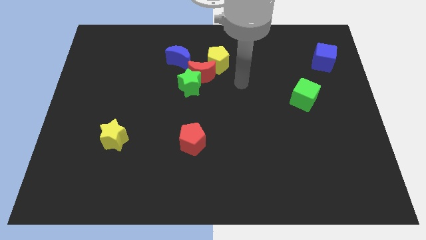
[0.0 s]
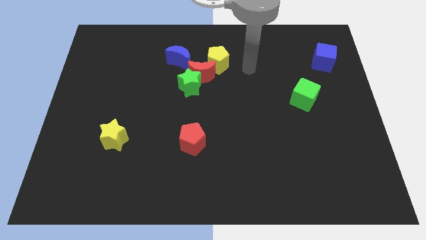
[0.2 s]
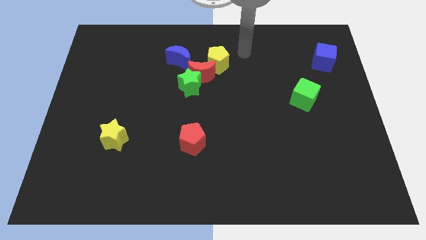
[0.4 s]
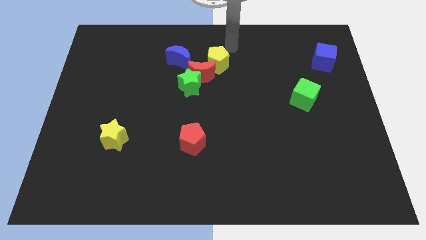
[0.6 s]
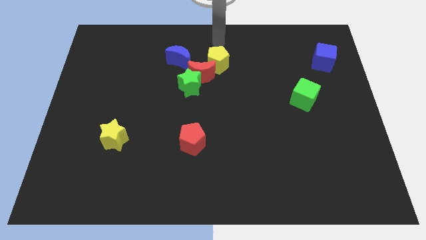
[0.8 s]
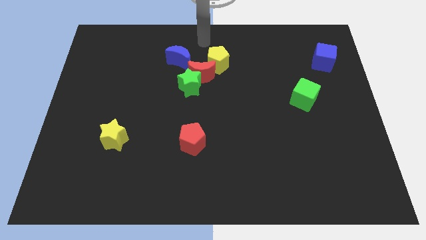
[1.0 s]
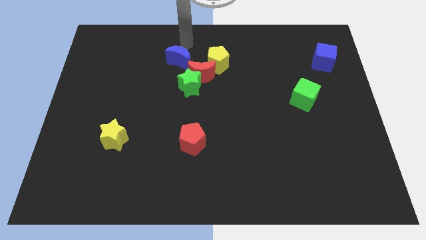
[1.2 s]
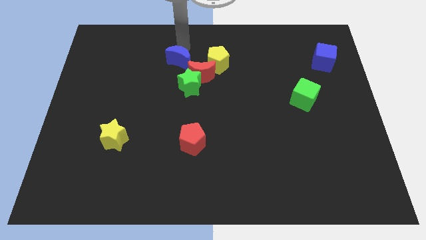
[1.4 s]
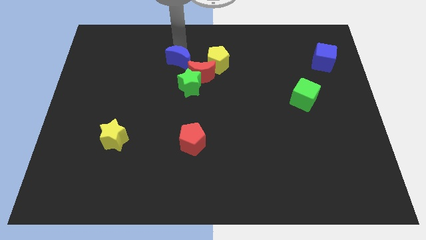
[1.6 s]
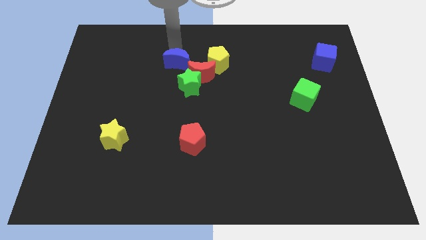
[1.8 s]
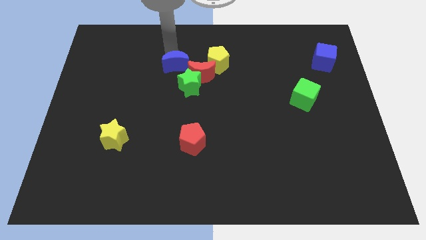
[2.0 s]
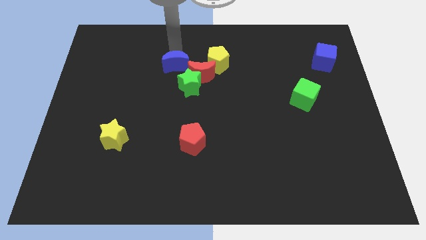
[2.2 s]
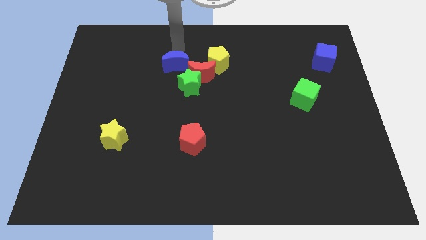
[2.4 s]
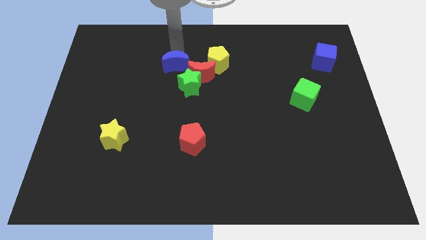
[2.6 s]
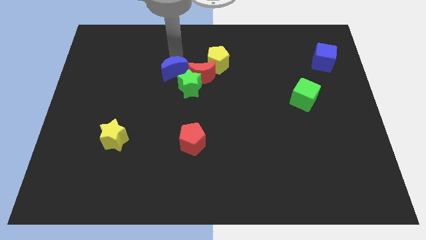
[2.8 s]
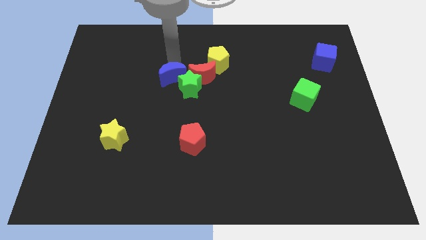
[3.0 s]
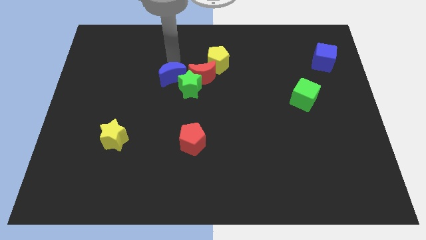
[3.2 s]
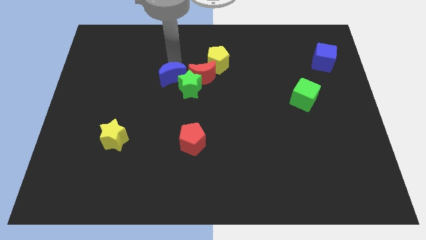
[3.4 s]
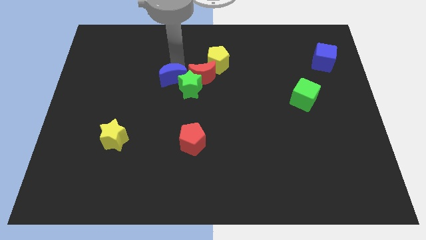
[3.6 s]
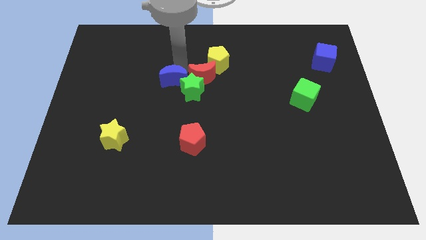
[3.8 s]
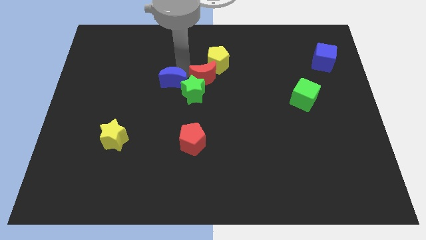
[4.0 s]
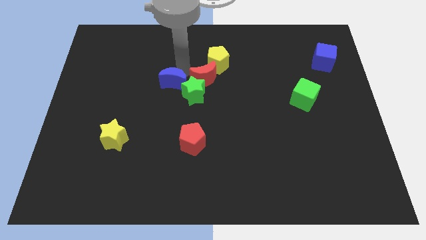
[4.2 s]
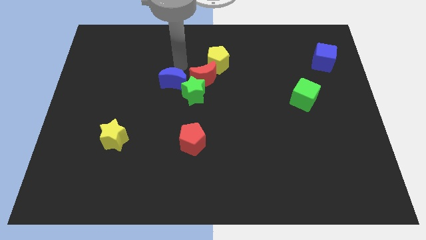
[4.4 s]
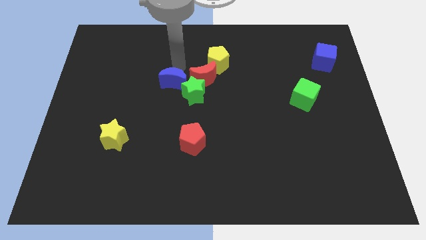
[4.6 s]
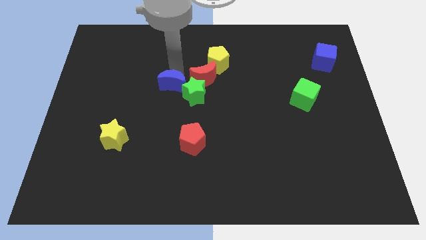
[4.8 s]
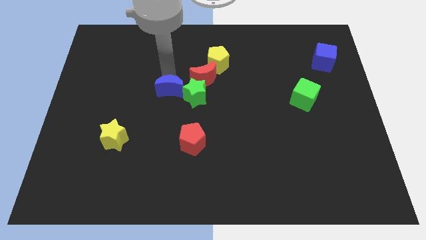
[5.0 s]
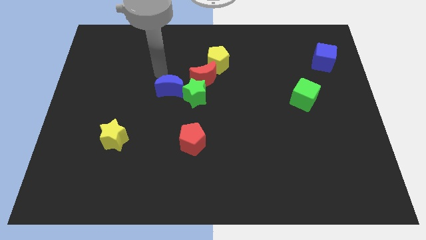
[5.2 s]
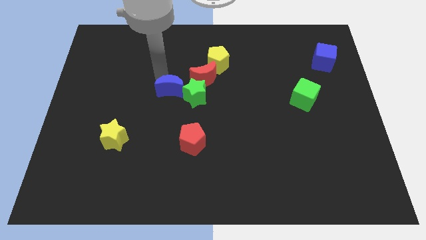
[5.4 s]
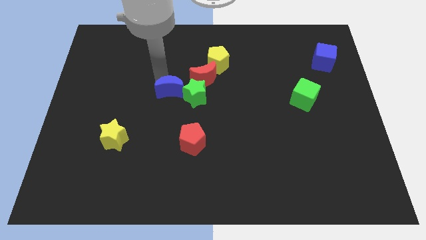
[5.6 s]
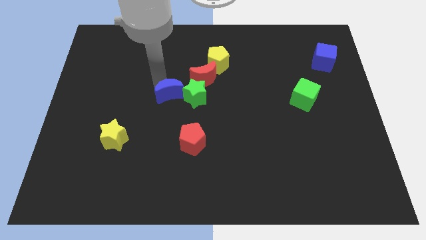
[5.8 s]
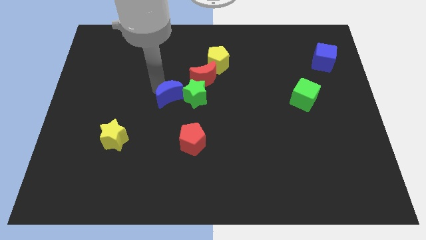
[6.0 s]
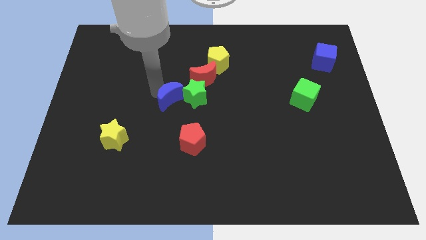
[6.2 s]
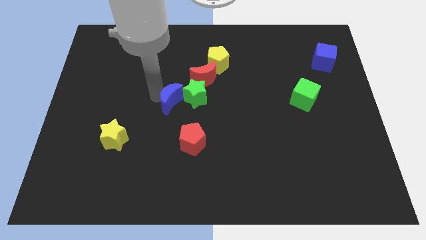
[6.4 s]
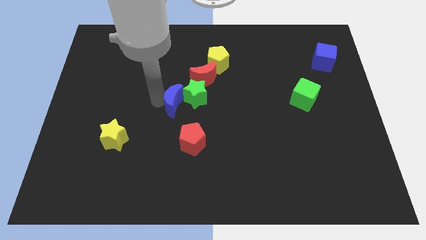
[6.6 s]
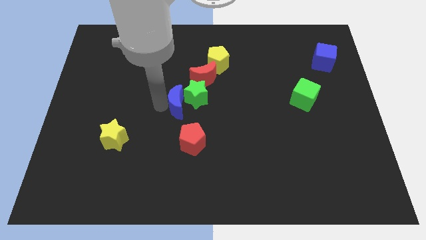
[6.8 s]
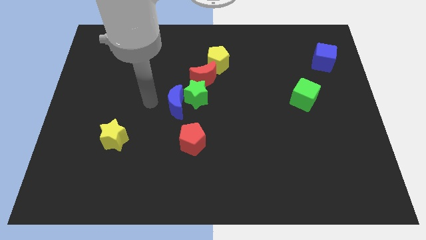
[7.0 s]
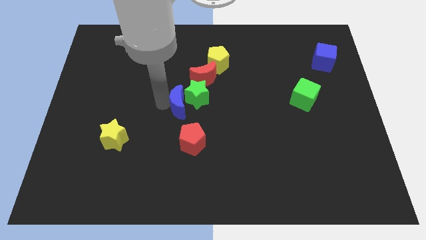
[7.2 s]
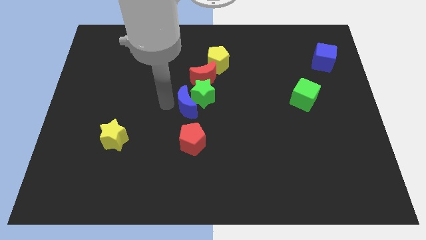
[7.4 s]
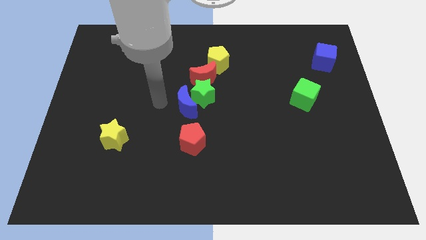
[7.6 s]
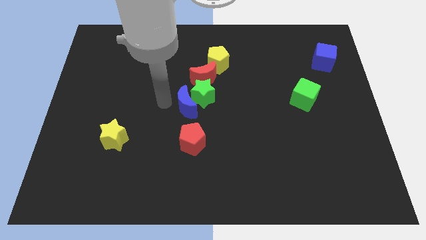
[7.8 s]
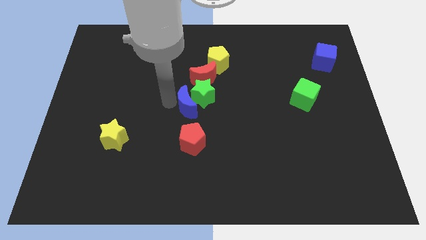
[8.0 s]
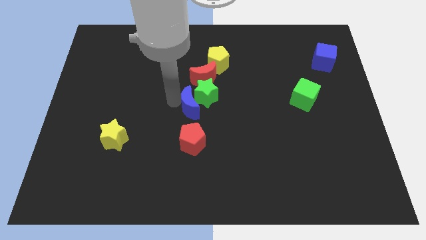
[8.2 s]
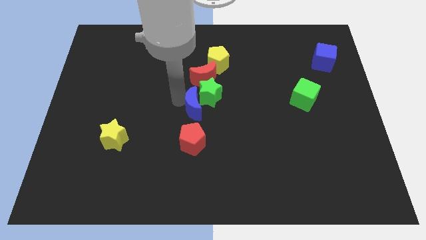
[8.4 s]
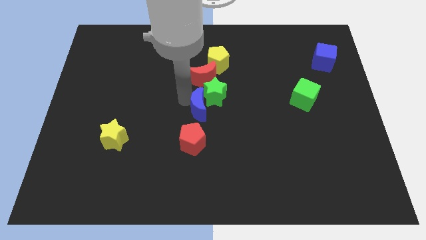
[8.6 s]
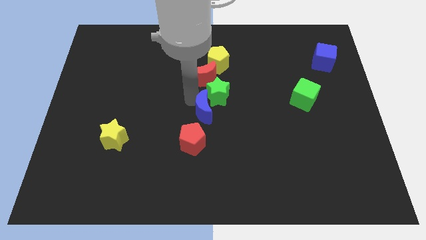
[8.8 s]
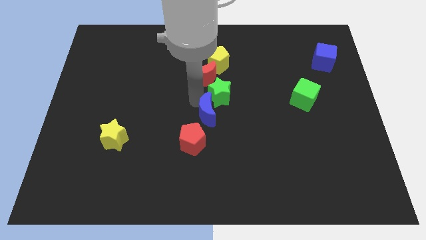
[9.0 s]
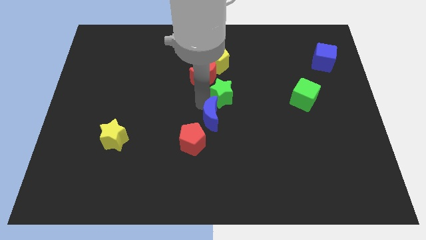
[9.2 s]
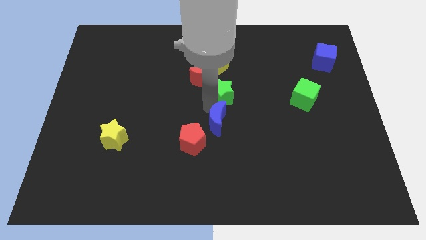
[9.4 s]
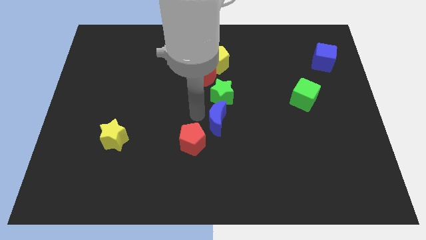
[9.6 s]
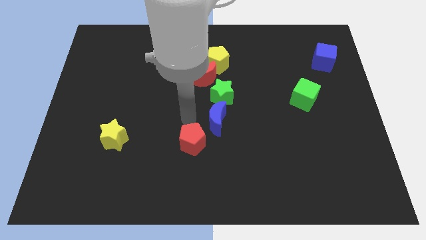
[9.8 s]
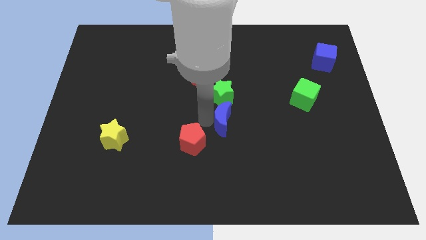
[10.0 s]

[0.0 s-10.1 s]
move the blue moon down and to the right diagonally

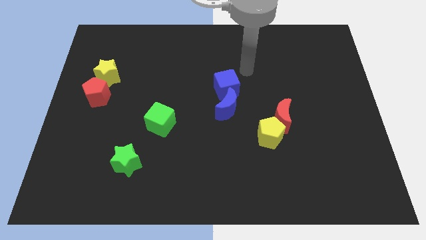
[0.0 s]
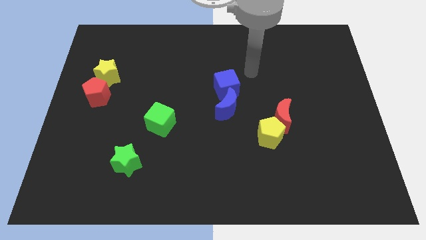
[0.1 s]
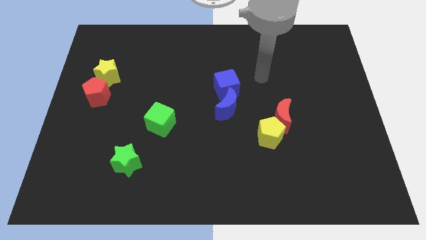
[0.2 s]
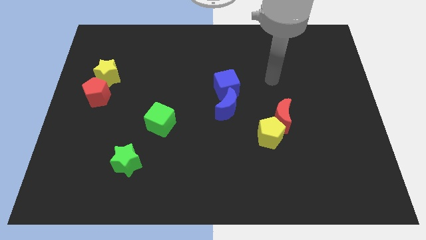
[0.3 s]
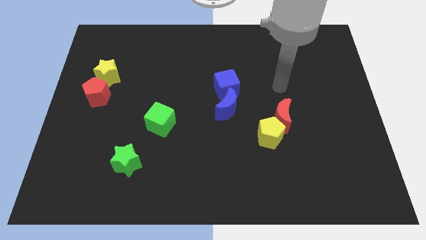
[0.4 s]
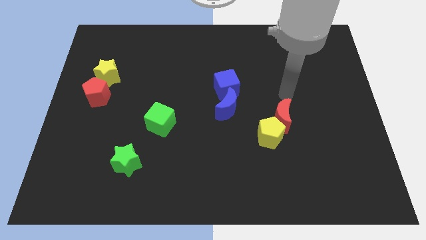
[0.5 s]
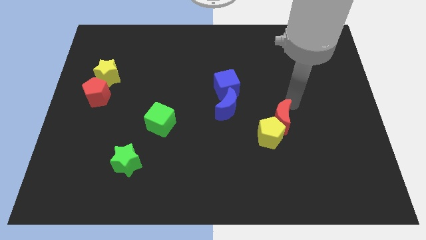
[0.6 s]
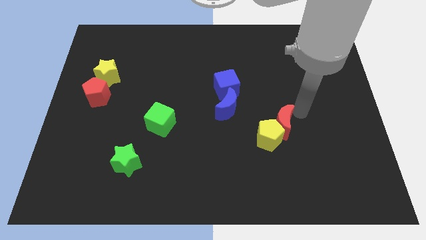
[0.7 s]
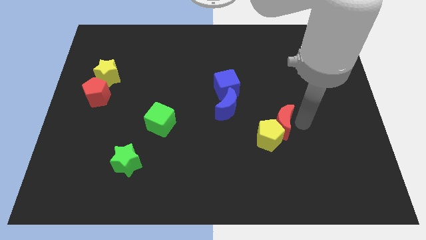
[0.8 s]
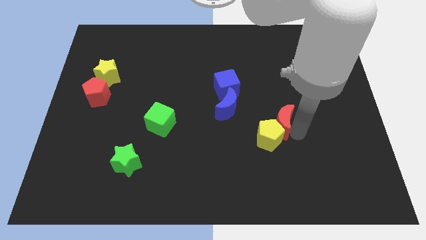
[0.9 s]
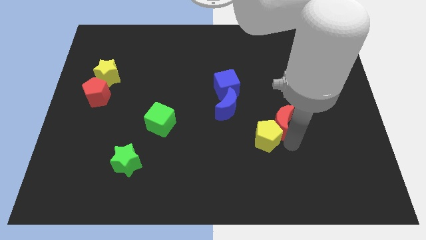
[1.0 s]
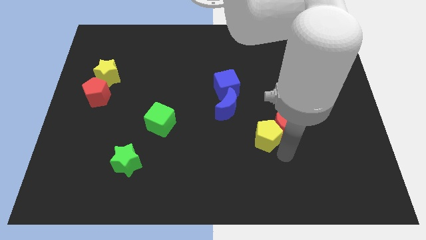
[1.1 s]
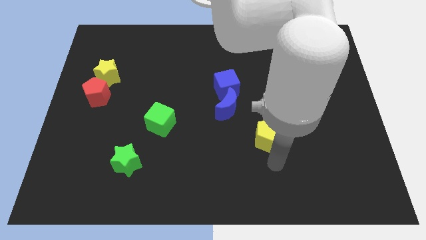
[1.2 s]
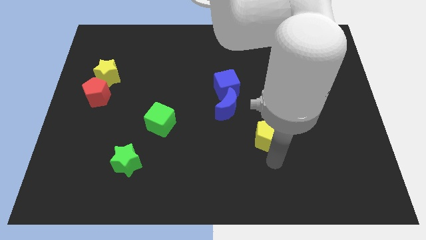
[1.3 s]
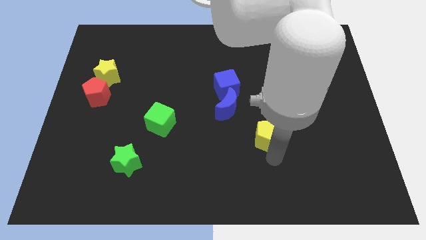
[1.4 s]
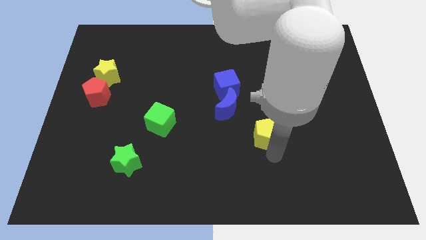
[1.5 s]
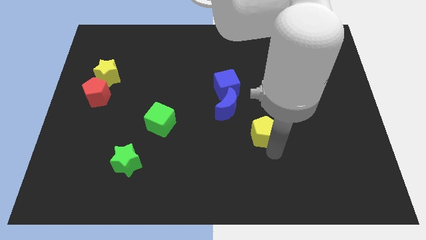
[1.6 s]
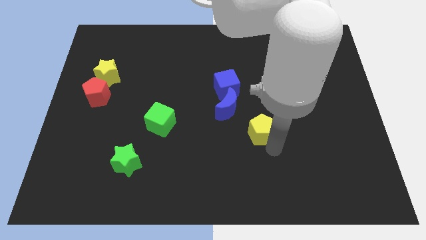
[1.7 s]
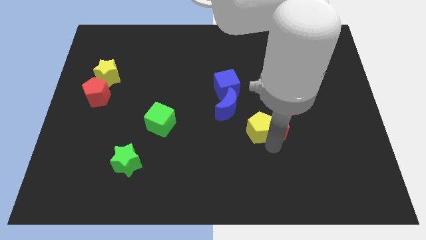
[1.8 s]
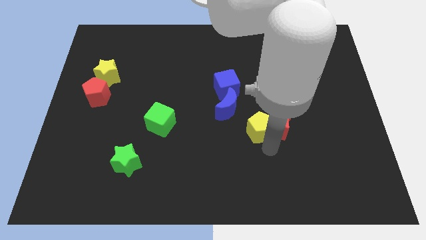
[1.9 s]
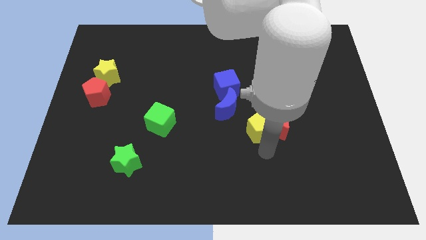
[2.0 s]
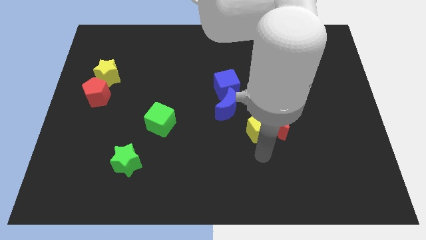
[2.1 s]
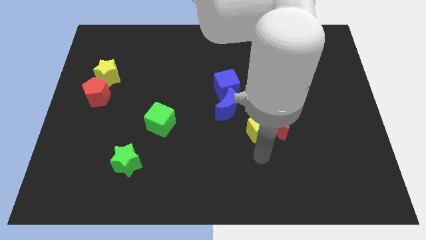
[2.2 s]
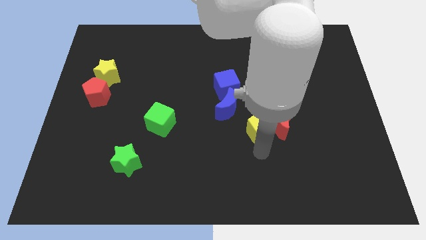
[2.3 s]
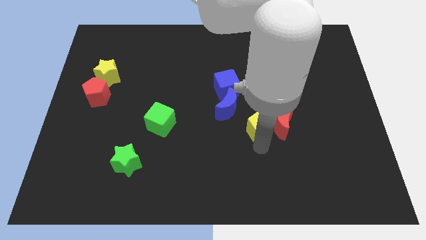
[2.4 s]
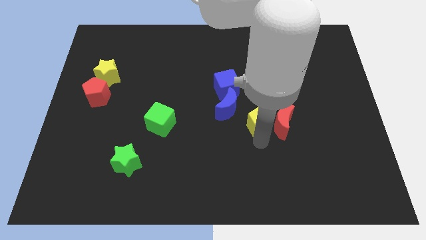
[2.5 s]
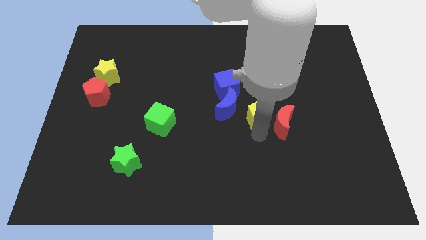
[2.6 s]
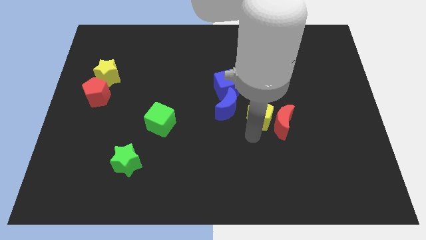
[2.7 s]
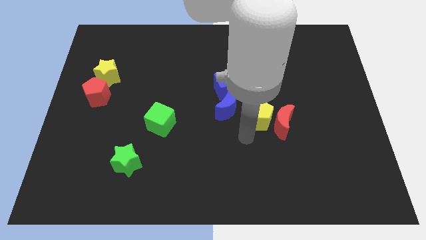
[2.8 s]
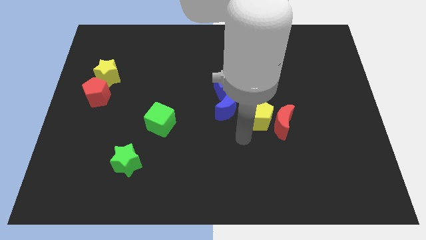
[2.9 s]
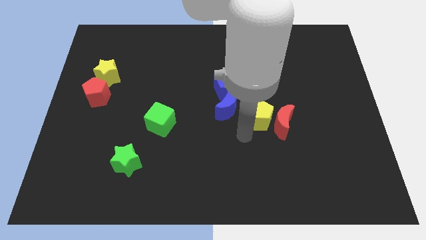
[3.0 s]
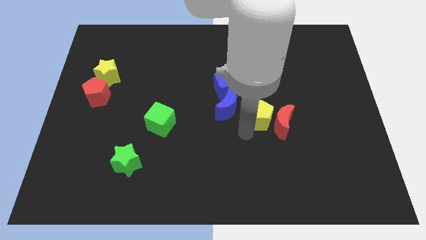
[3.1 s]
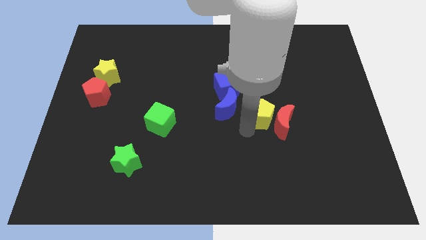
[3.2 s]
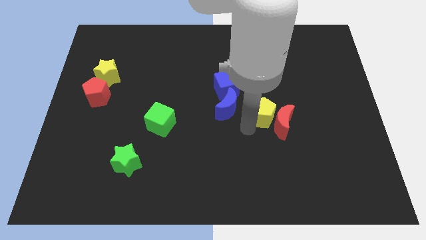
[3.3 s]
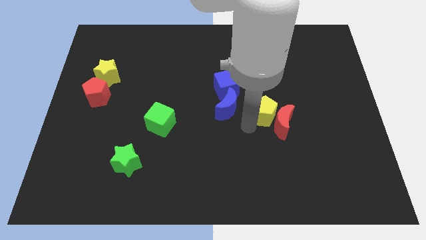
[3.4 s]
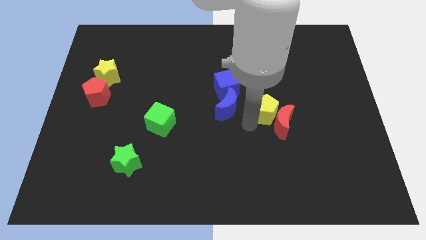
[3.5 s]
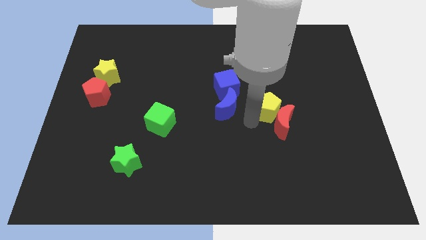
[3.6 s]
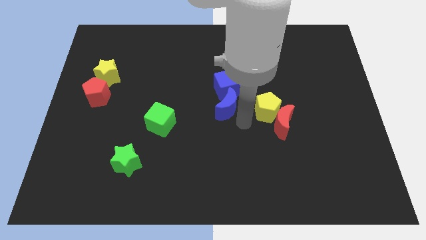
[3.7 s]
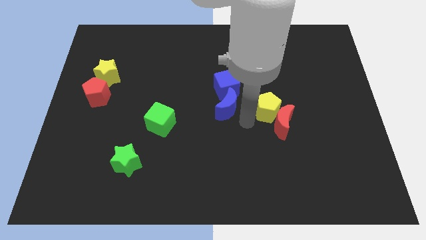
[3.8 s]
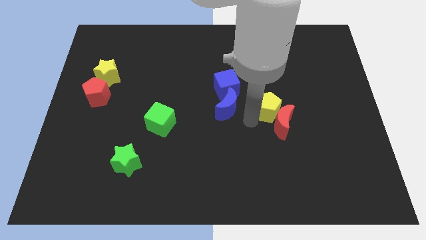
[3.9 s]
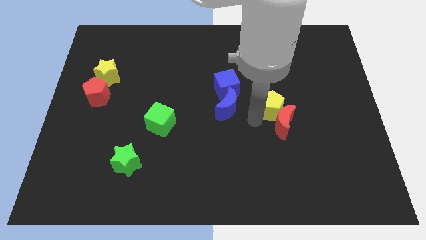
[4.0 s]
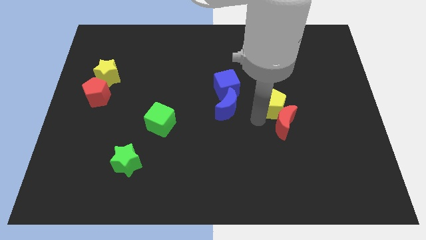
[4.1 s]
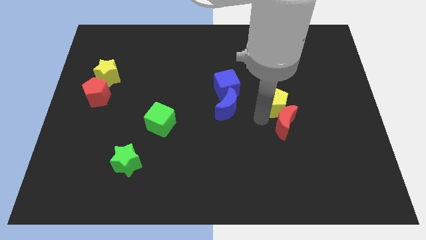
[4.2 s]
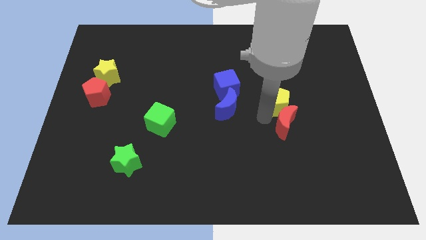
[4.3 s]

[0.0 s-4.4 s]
slide the yellow pentagon a little bit diagonally upwards and to the right
